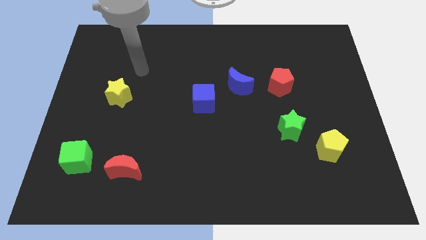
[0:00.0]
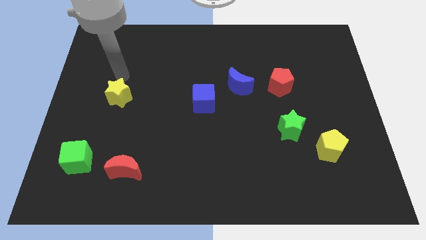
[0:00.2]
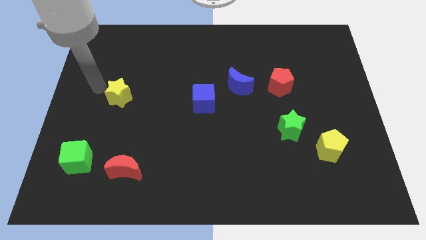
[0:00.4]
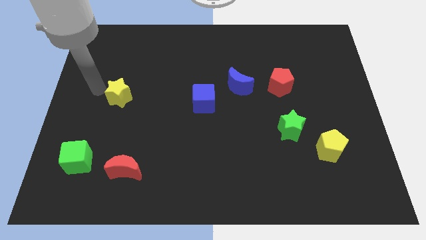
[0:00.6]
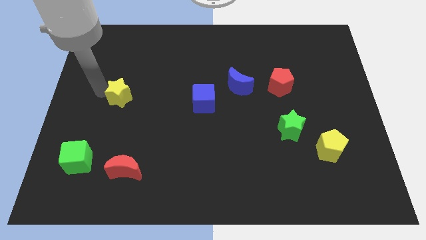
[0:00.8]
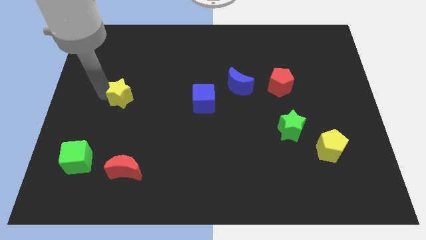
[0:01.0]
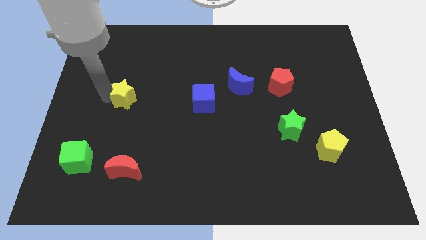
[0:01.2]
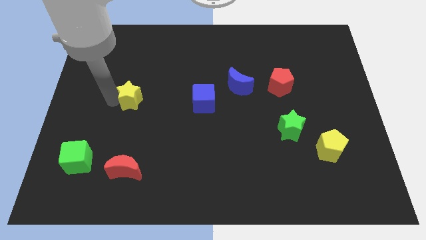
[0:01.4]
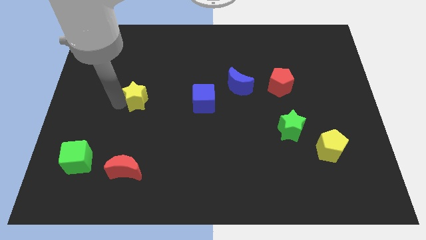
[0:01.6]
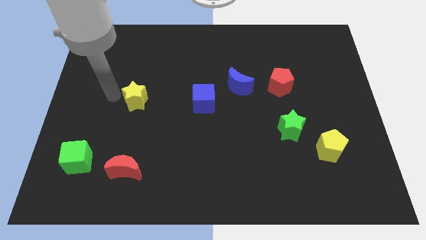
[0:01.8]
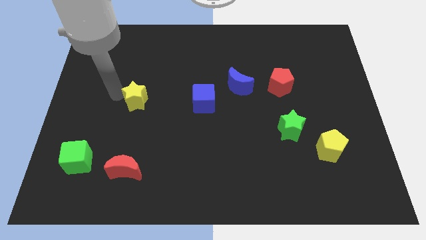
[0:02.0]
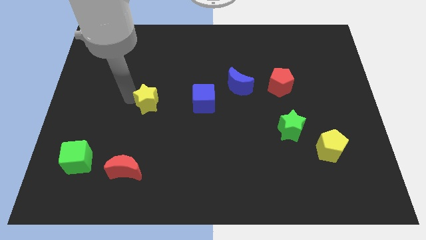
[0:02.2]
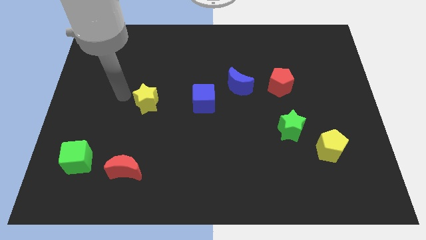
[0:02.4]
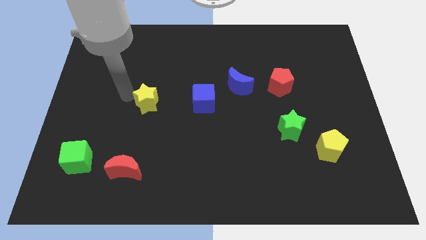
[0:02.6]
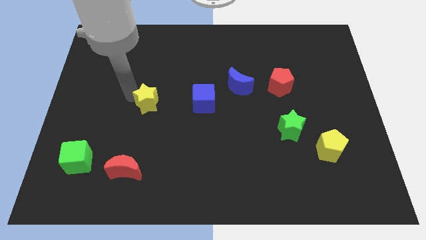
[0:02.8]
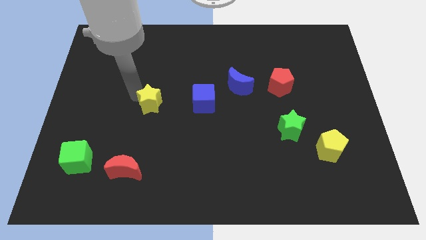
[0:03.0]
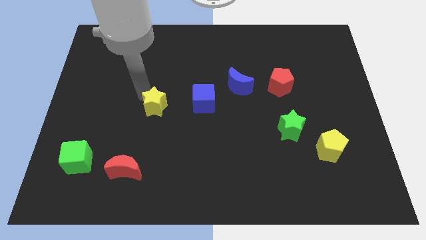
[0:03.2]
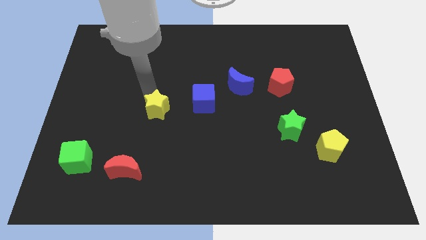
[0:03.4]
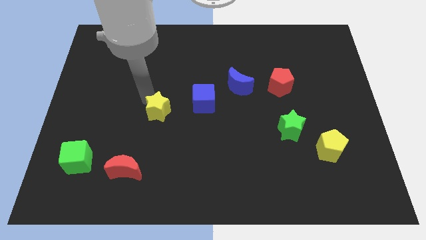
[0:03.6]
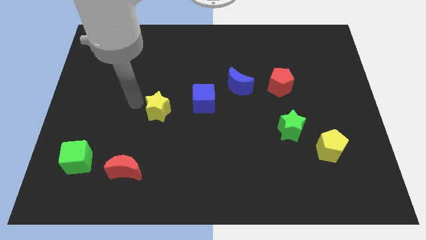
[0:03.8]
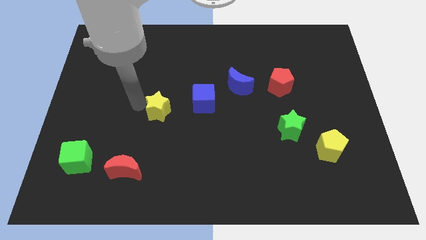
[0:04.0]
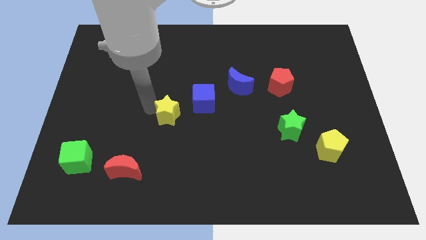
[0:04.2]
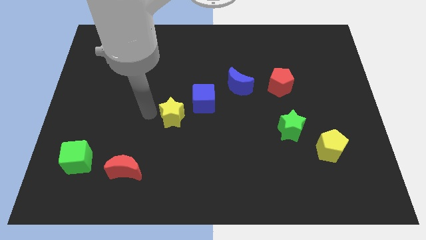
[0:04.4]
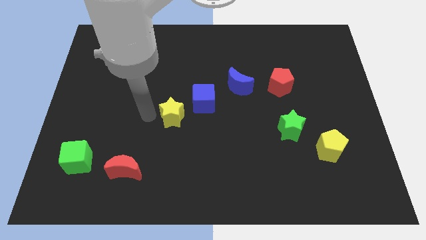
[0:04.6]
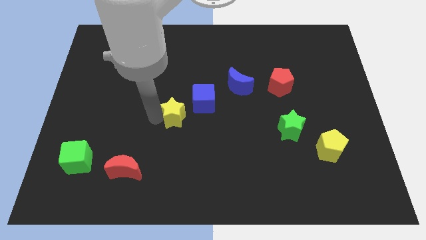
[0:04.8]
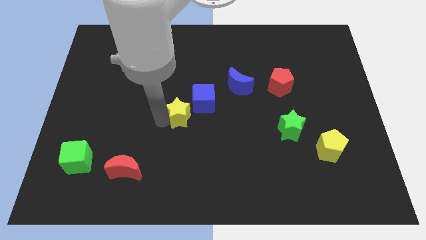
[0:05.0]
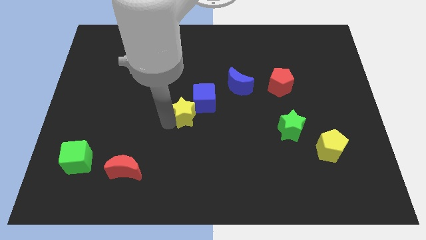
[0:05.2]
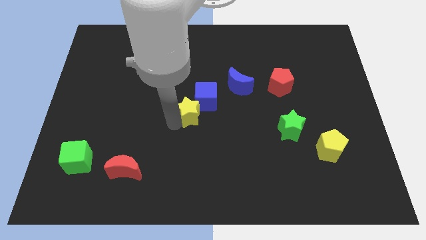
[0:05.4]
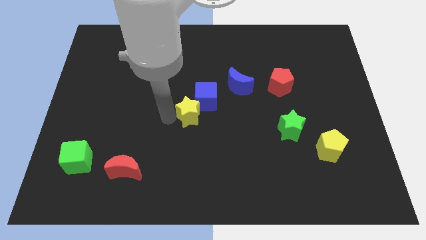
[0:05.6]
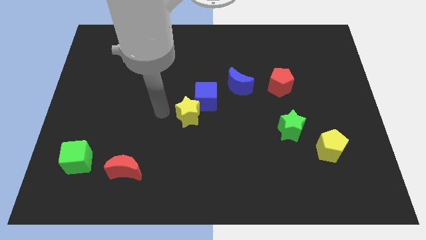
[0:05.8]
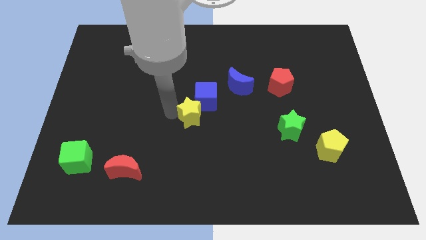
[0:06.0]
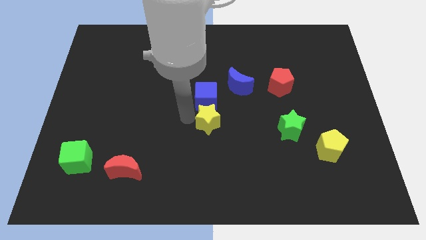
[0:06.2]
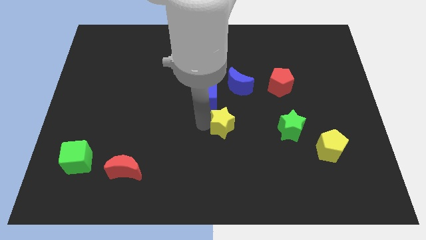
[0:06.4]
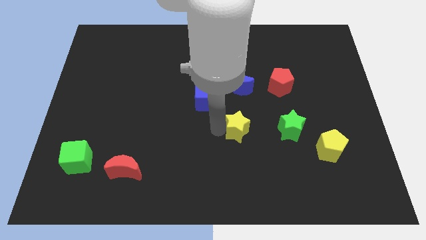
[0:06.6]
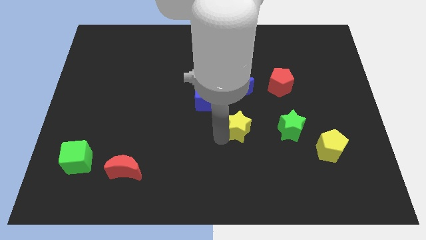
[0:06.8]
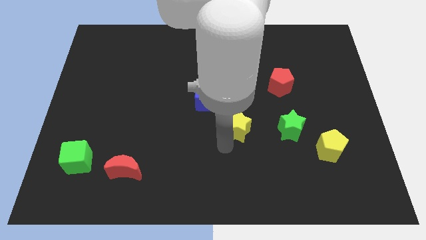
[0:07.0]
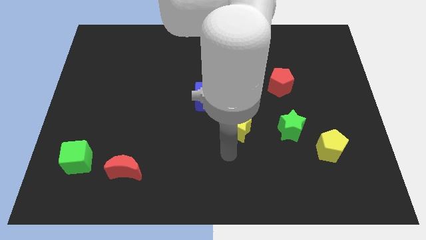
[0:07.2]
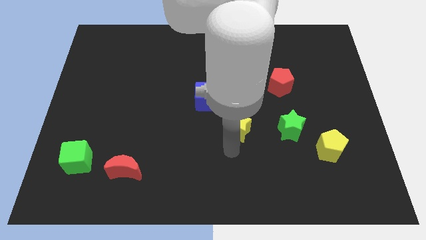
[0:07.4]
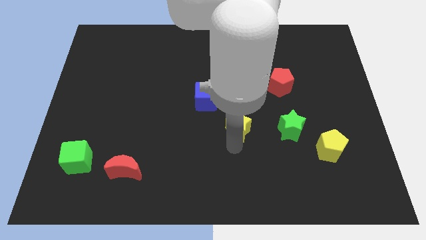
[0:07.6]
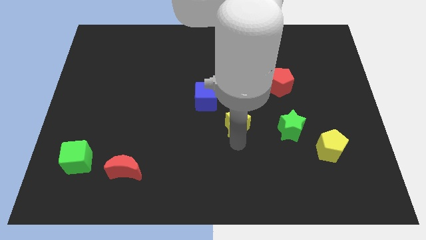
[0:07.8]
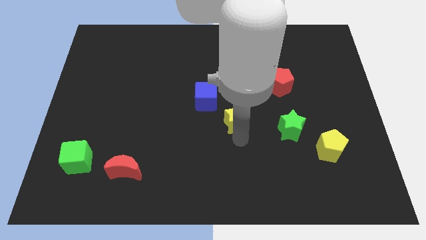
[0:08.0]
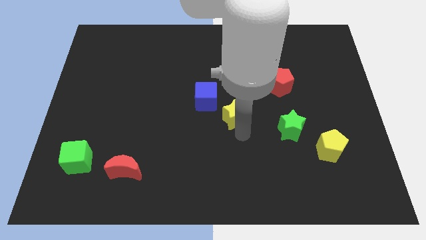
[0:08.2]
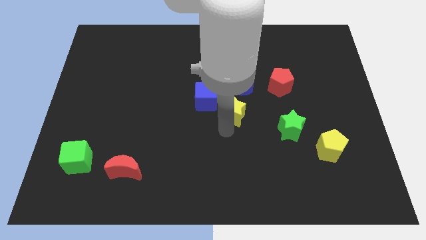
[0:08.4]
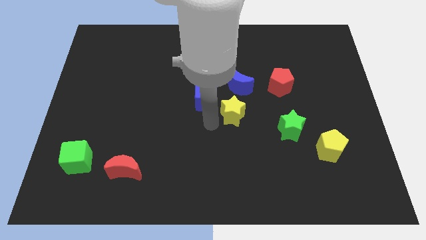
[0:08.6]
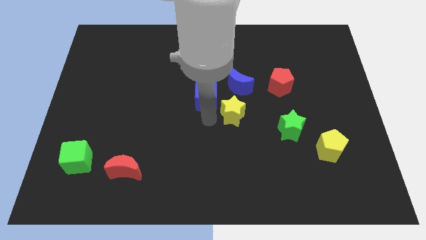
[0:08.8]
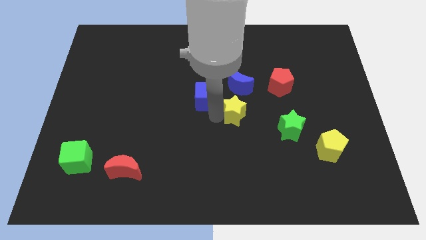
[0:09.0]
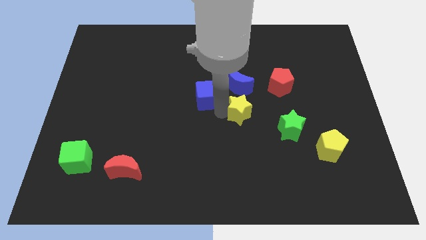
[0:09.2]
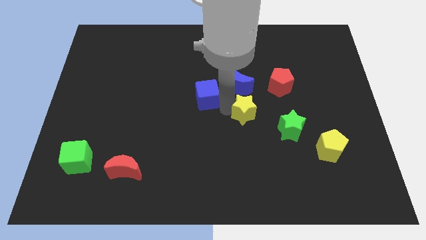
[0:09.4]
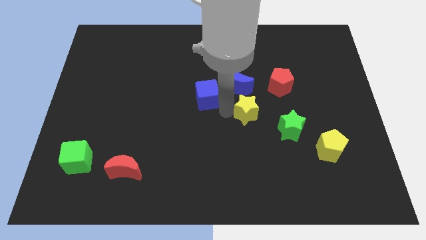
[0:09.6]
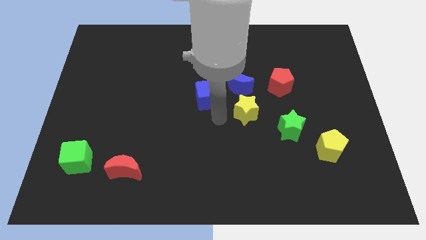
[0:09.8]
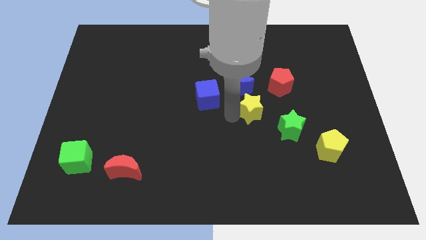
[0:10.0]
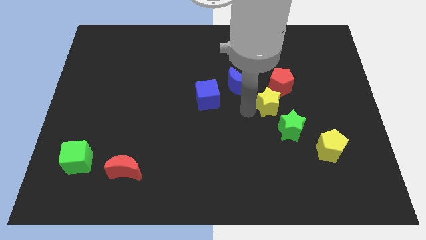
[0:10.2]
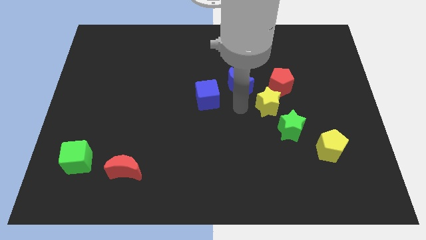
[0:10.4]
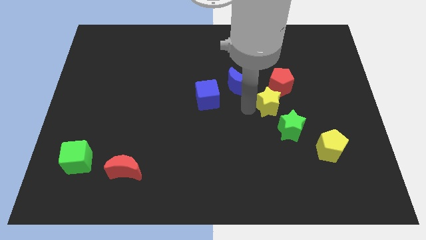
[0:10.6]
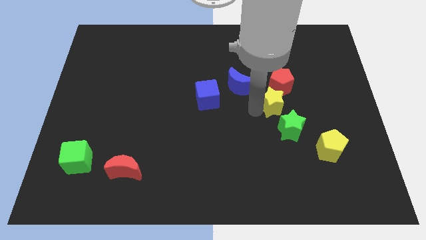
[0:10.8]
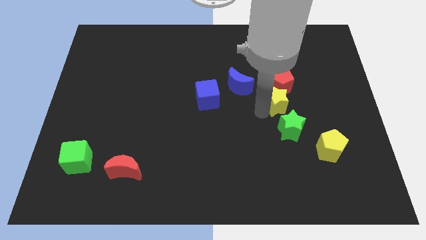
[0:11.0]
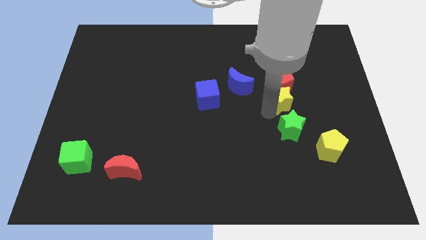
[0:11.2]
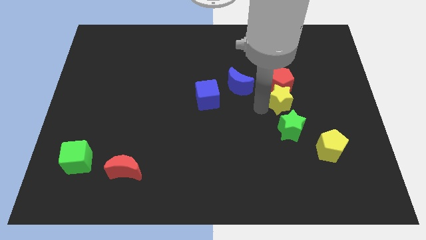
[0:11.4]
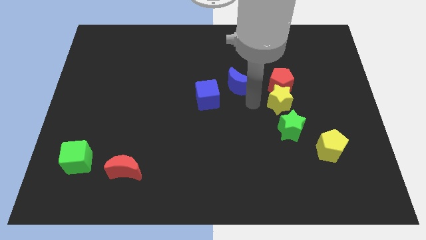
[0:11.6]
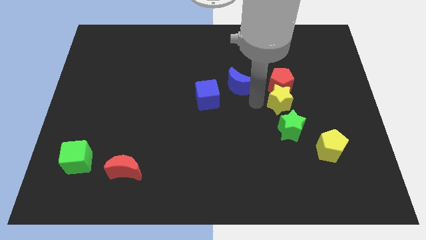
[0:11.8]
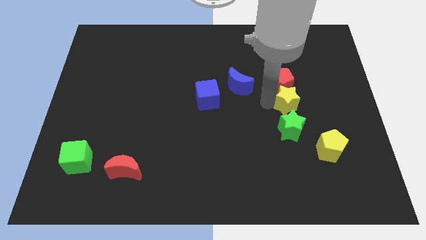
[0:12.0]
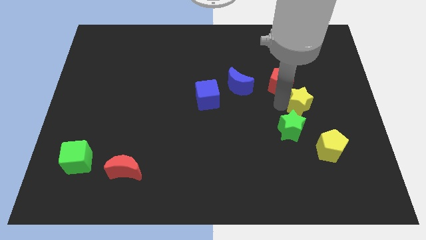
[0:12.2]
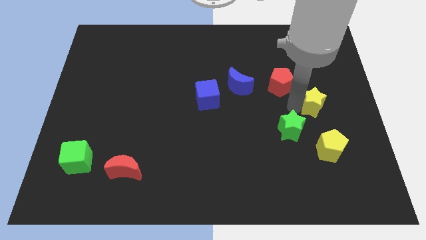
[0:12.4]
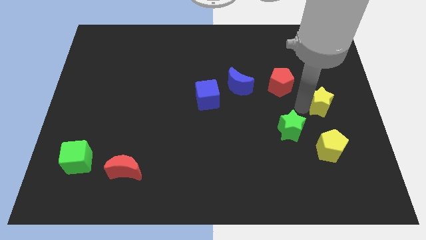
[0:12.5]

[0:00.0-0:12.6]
push the yellow star to the right side of the board
